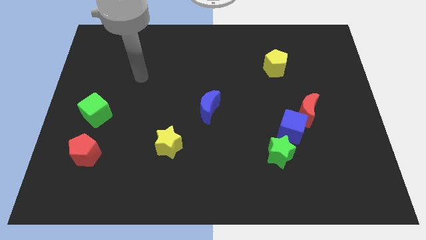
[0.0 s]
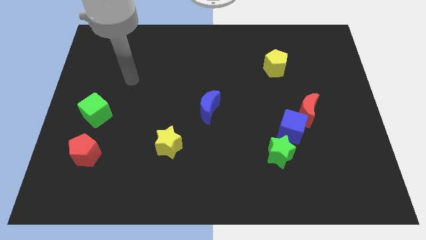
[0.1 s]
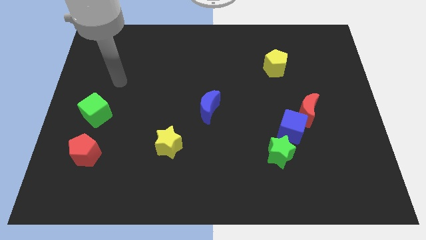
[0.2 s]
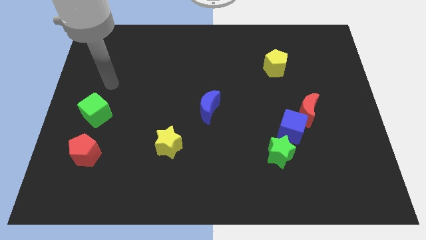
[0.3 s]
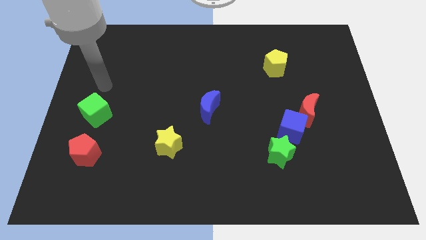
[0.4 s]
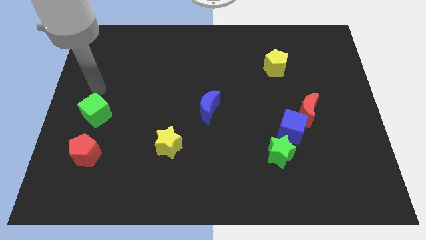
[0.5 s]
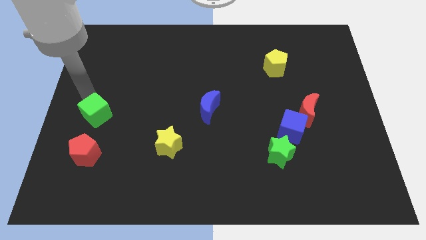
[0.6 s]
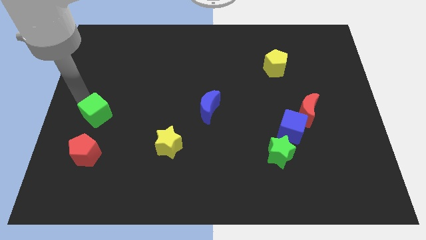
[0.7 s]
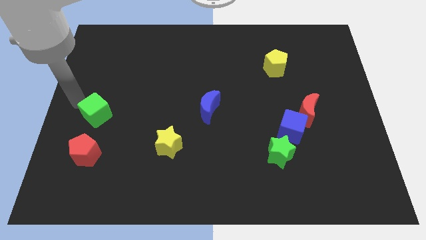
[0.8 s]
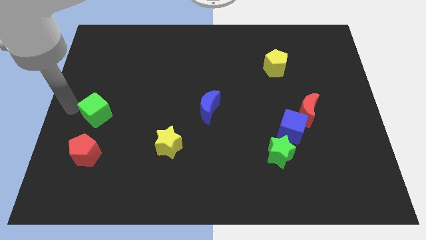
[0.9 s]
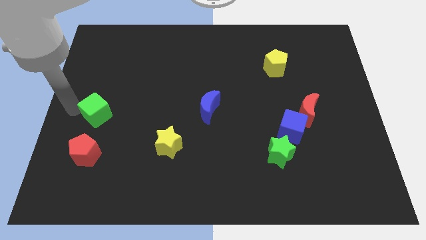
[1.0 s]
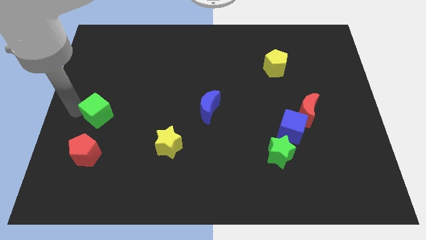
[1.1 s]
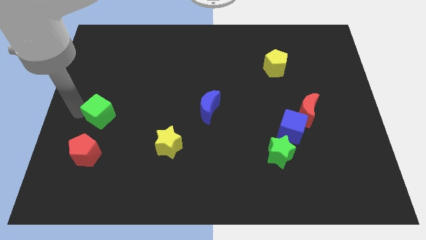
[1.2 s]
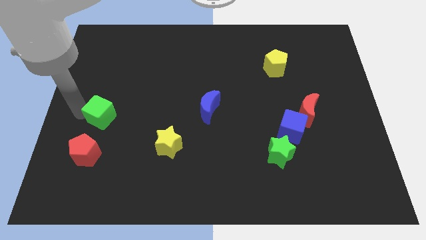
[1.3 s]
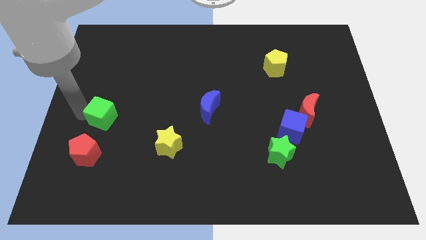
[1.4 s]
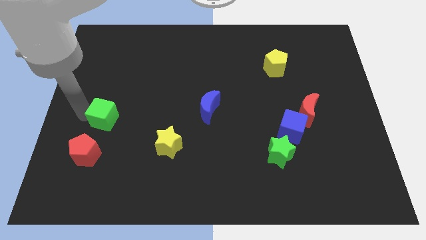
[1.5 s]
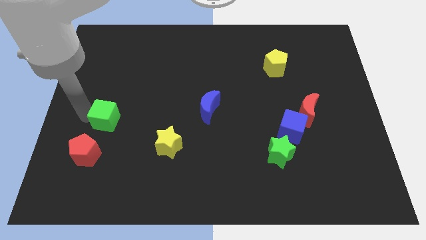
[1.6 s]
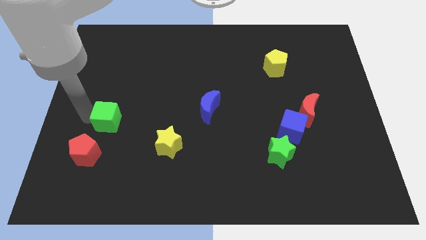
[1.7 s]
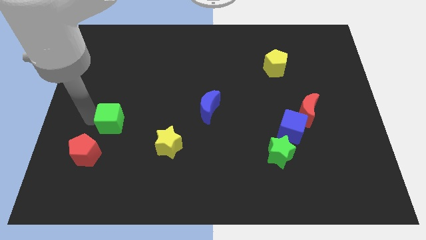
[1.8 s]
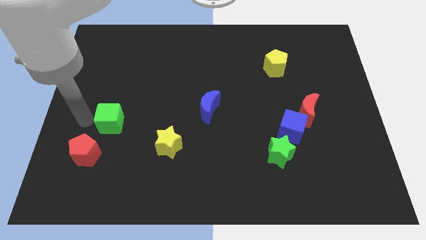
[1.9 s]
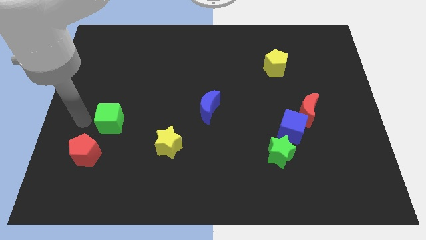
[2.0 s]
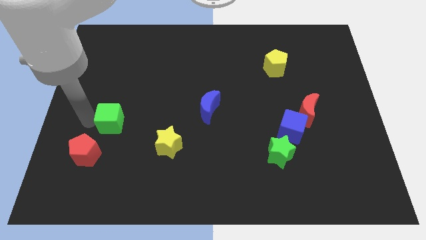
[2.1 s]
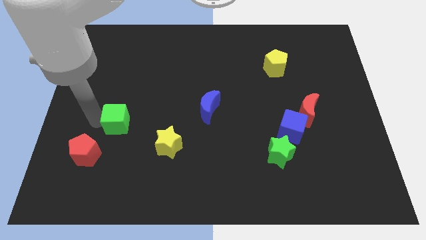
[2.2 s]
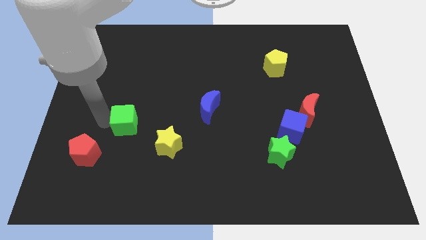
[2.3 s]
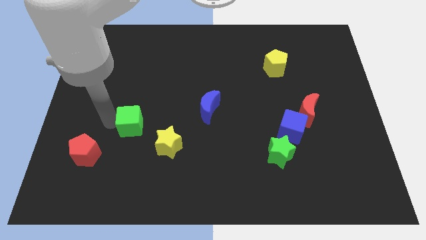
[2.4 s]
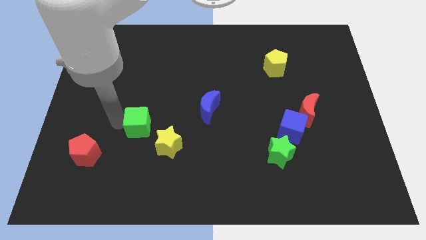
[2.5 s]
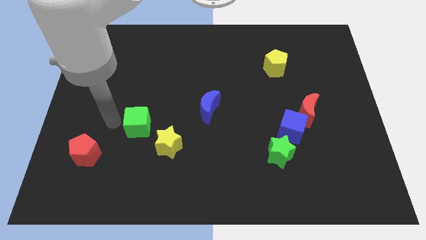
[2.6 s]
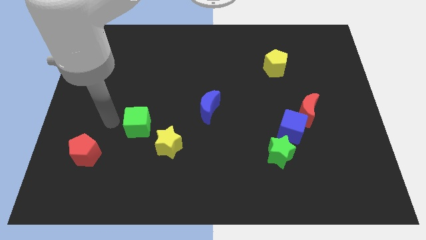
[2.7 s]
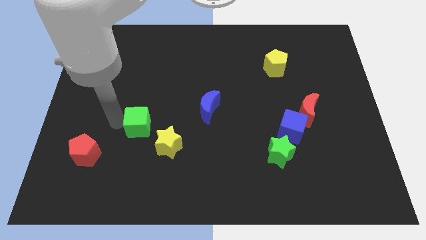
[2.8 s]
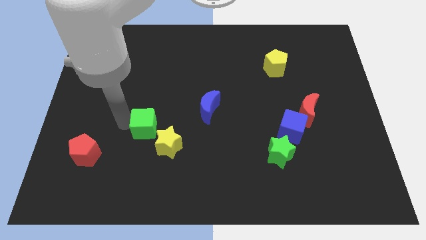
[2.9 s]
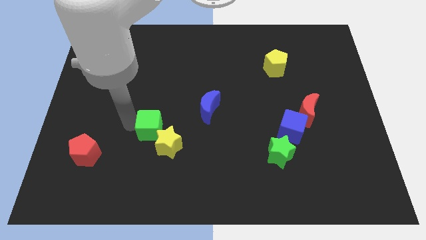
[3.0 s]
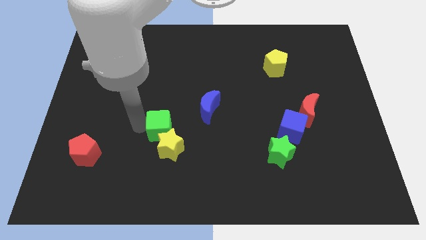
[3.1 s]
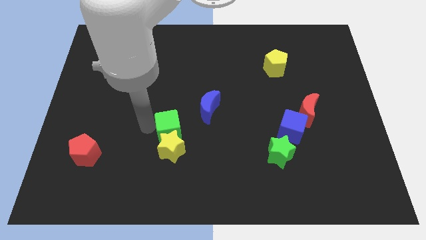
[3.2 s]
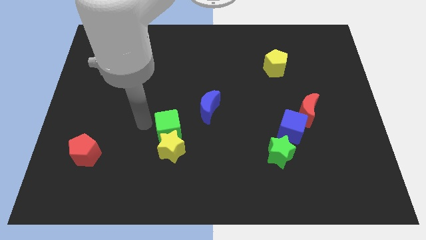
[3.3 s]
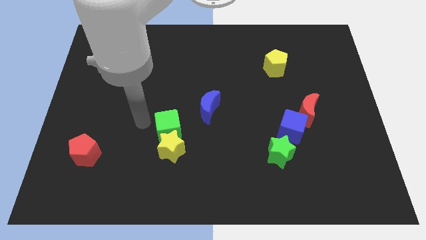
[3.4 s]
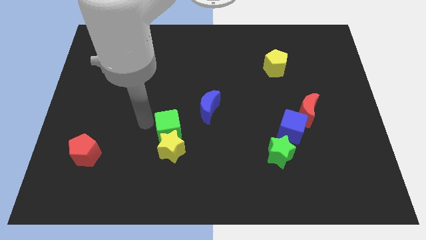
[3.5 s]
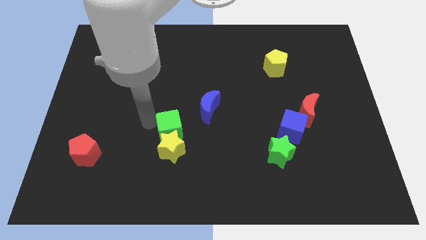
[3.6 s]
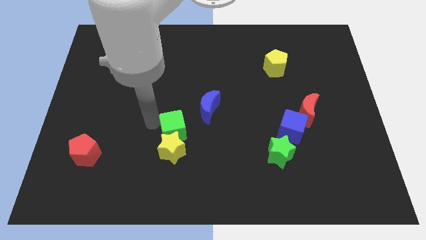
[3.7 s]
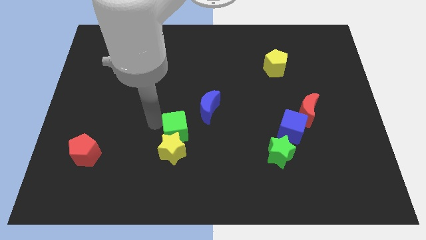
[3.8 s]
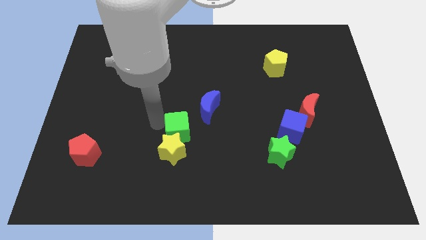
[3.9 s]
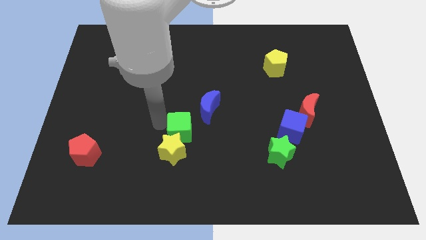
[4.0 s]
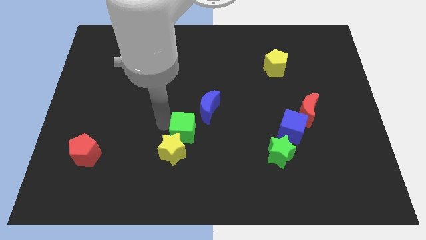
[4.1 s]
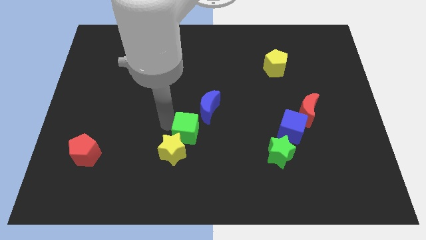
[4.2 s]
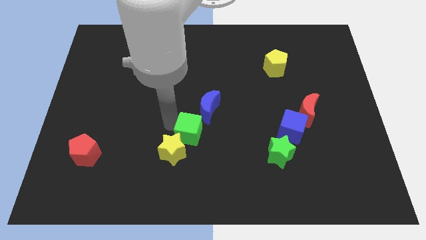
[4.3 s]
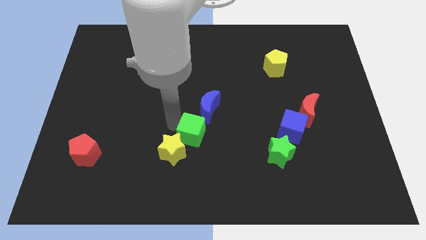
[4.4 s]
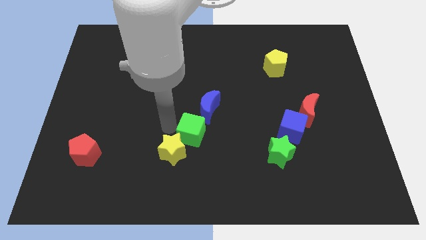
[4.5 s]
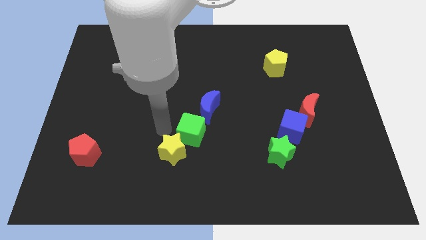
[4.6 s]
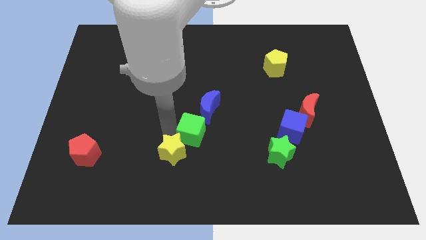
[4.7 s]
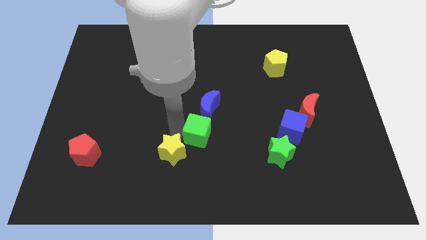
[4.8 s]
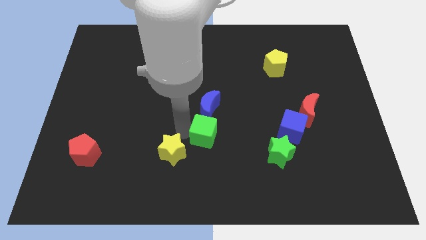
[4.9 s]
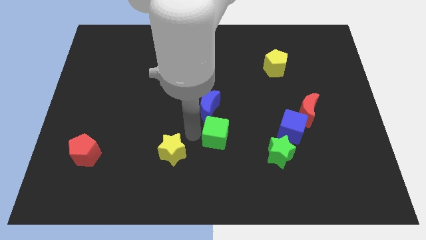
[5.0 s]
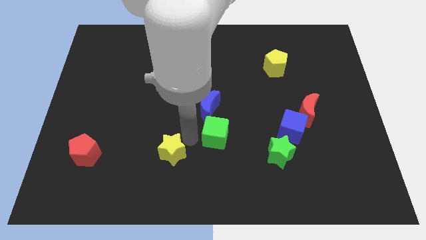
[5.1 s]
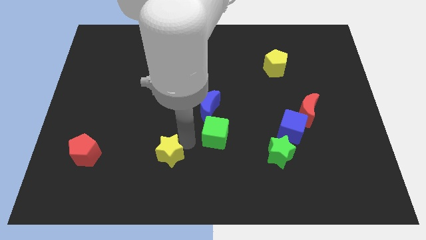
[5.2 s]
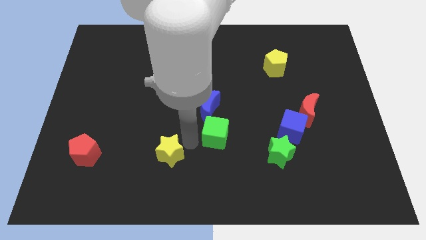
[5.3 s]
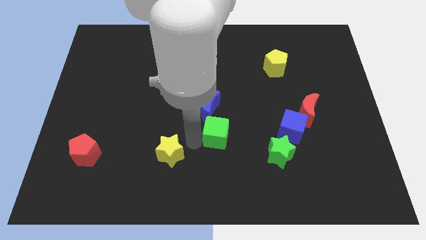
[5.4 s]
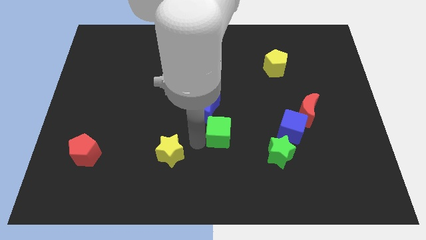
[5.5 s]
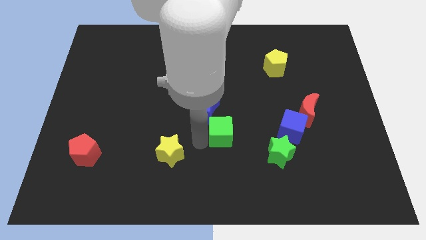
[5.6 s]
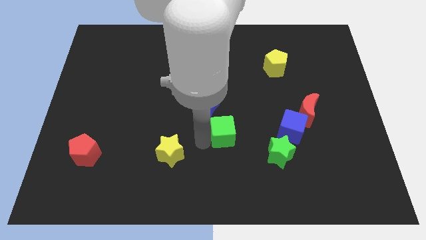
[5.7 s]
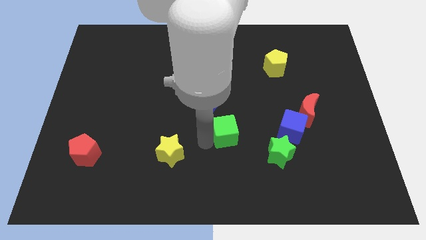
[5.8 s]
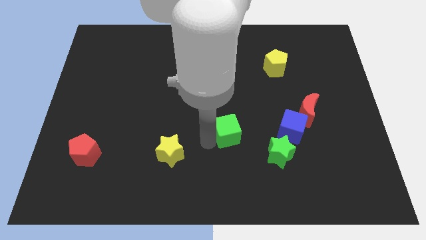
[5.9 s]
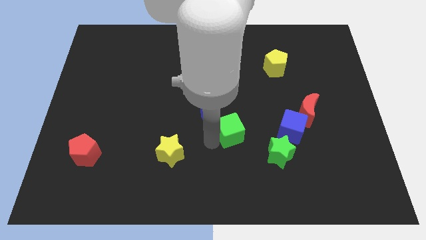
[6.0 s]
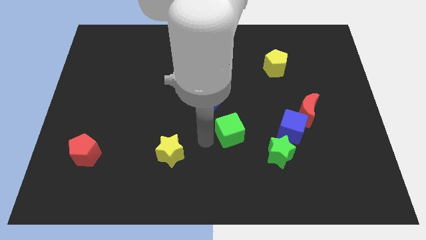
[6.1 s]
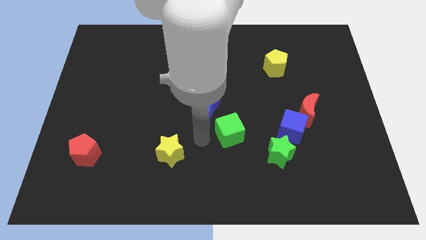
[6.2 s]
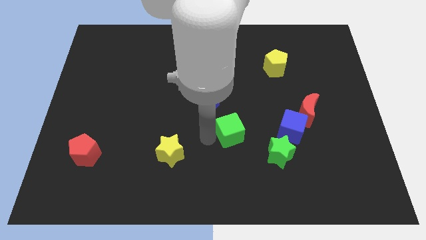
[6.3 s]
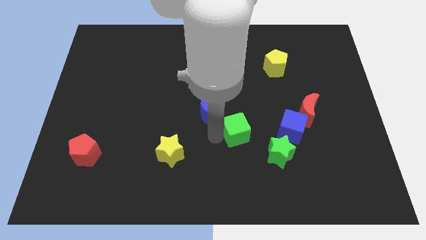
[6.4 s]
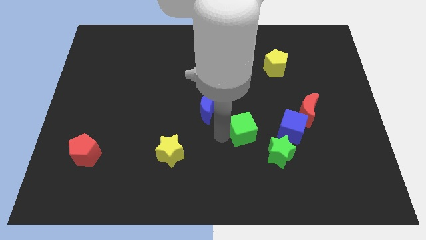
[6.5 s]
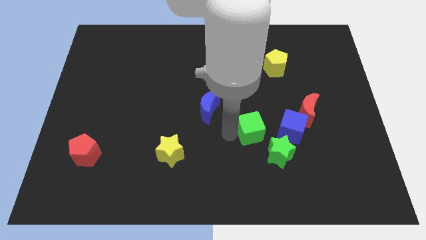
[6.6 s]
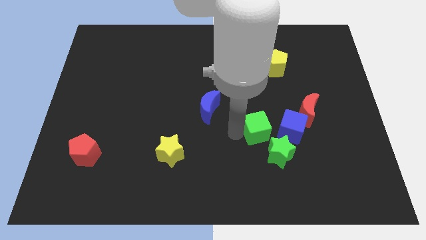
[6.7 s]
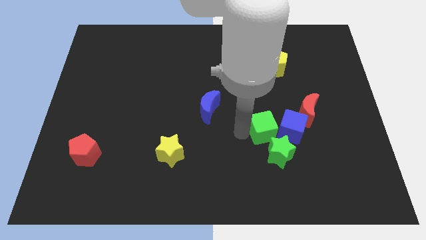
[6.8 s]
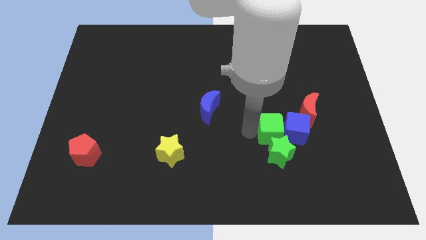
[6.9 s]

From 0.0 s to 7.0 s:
put the green cube next to the blue cube

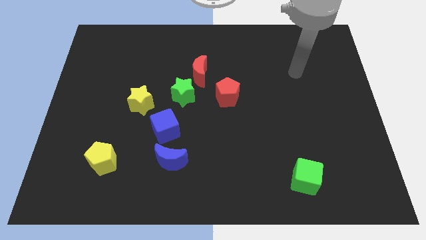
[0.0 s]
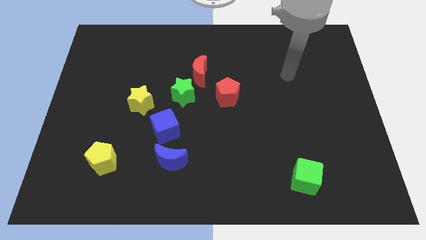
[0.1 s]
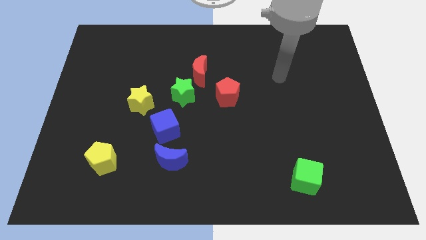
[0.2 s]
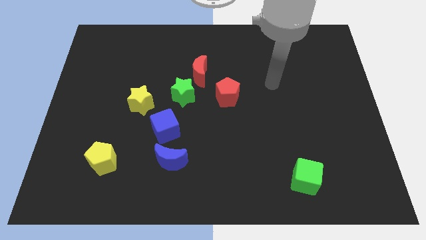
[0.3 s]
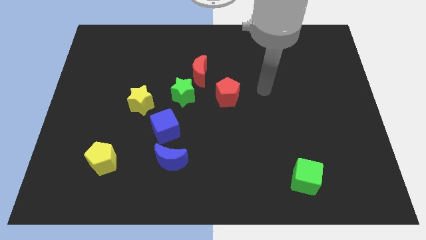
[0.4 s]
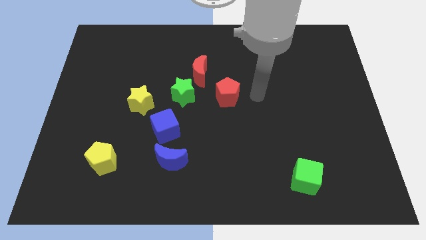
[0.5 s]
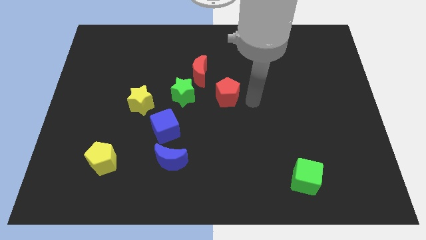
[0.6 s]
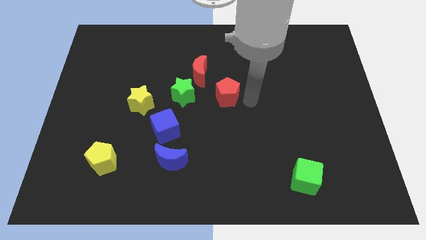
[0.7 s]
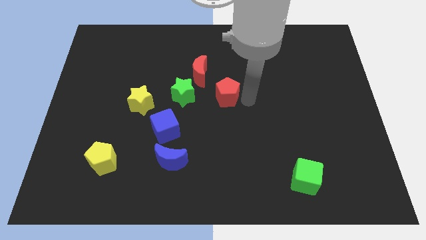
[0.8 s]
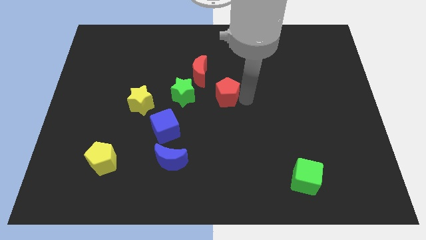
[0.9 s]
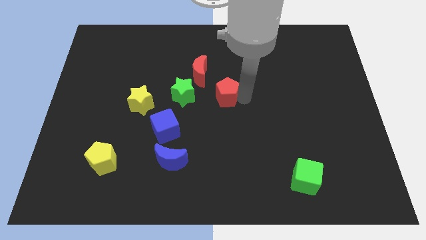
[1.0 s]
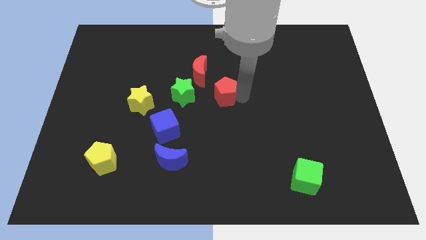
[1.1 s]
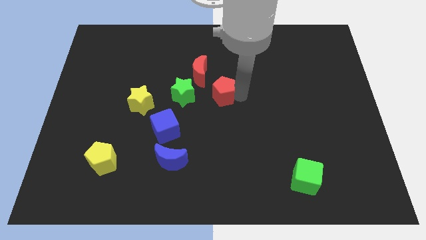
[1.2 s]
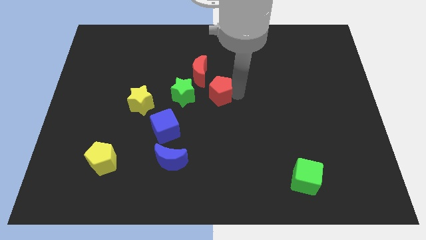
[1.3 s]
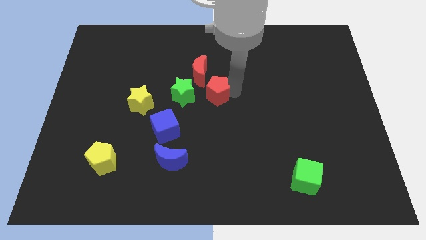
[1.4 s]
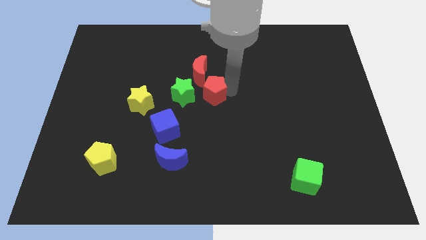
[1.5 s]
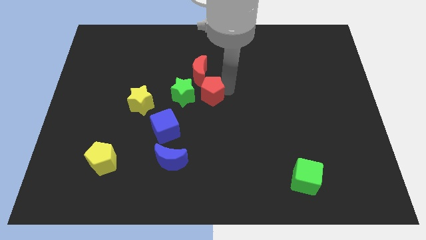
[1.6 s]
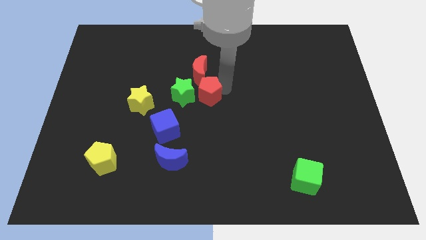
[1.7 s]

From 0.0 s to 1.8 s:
put the red pentagon towards the green star
